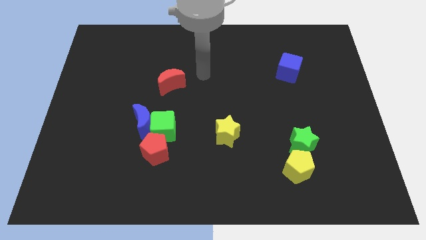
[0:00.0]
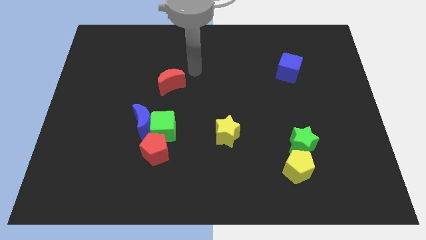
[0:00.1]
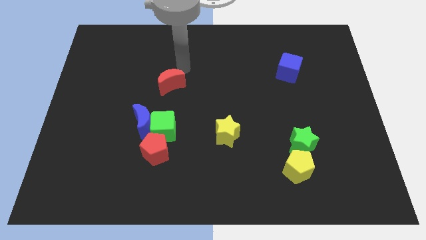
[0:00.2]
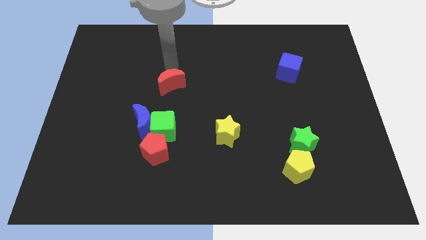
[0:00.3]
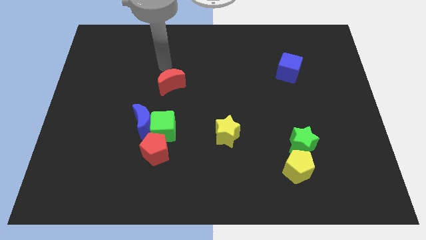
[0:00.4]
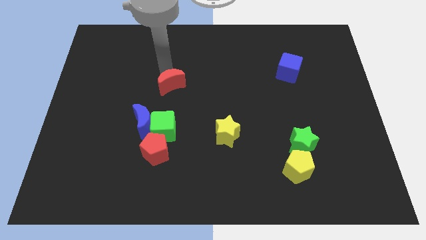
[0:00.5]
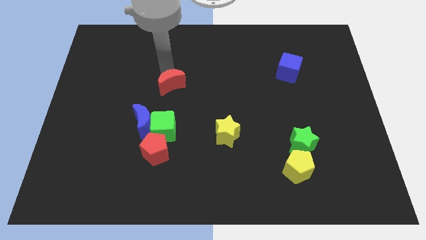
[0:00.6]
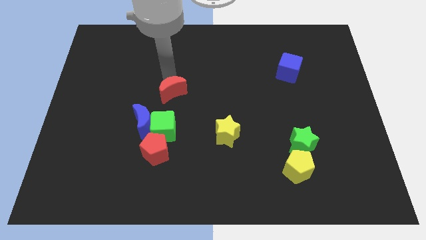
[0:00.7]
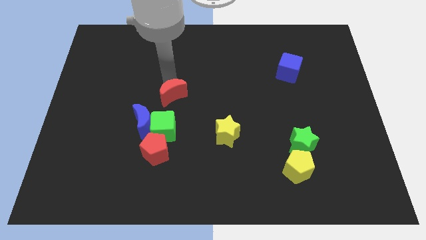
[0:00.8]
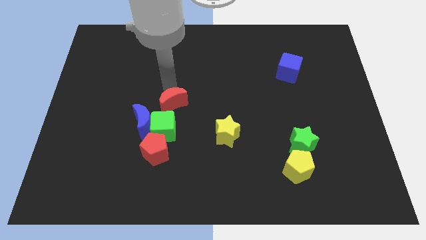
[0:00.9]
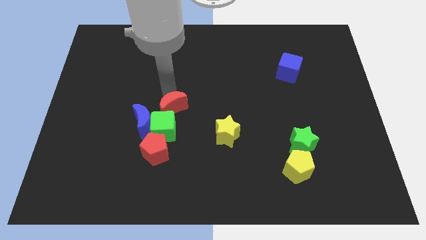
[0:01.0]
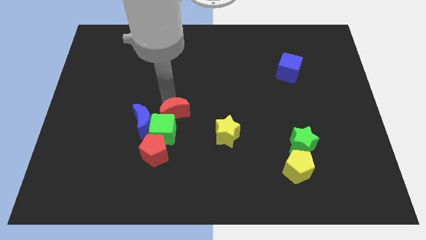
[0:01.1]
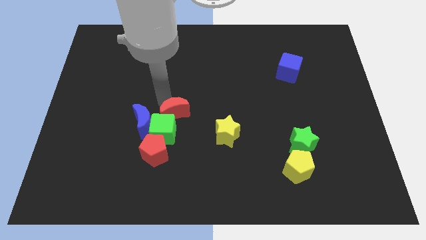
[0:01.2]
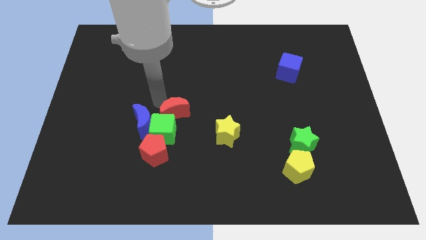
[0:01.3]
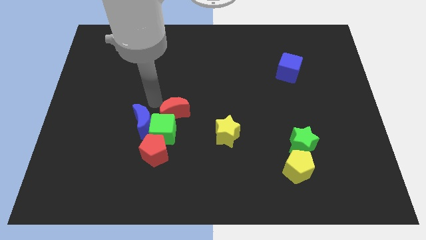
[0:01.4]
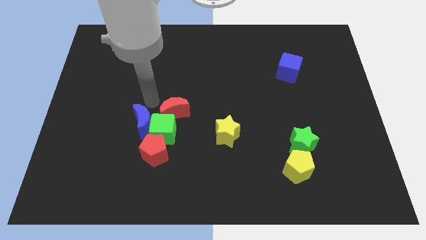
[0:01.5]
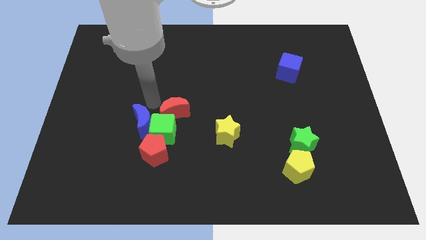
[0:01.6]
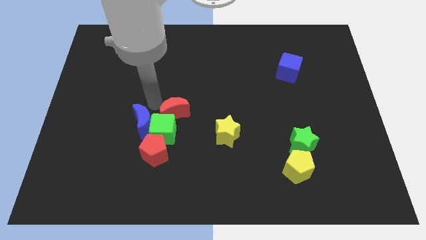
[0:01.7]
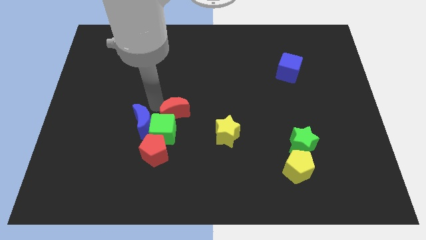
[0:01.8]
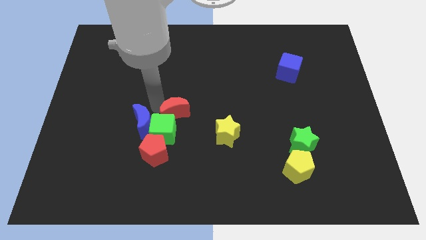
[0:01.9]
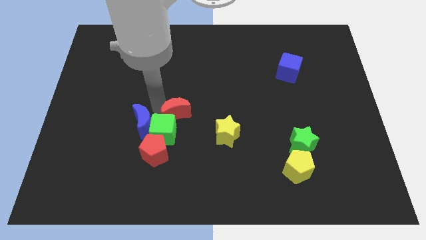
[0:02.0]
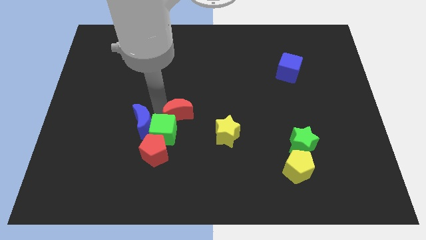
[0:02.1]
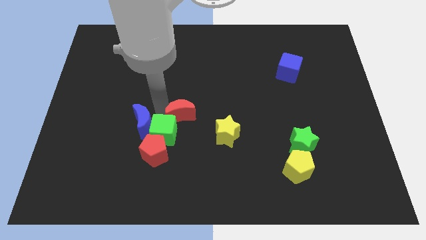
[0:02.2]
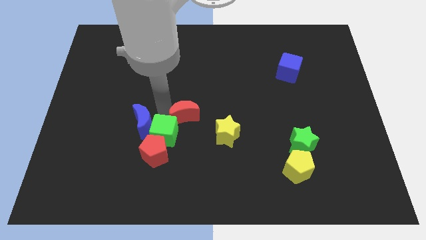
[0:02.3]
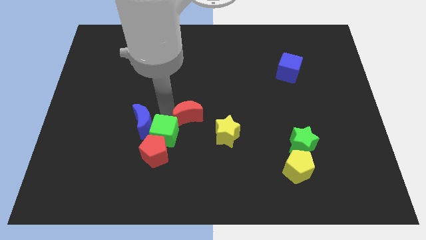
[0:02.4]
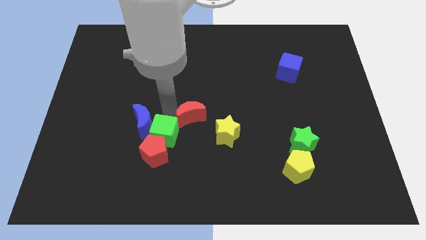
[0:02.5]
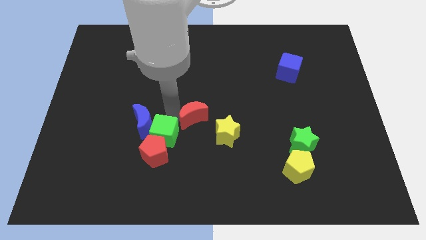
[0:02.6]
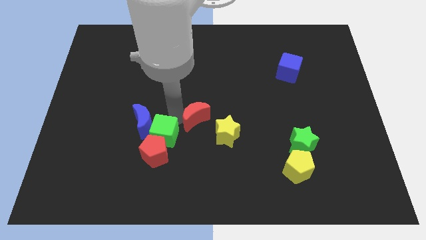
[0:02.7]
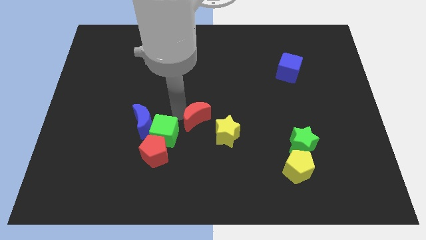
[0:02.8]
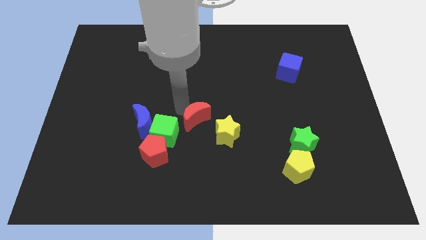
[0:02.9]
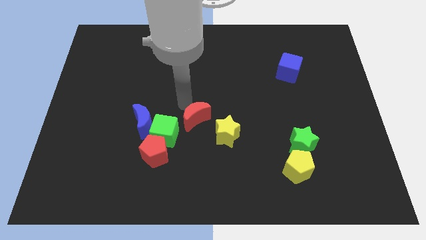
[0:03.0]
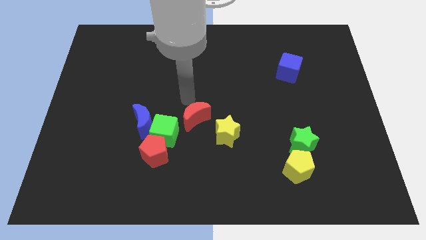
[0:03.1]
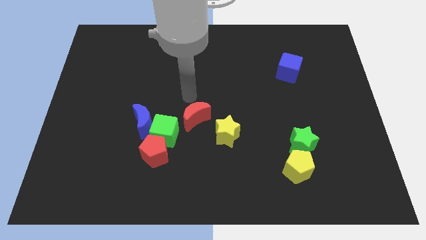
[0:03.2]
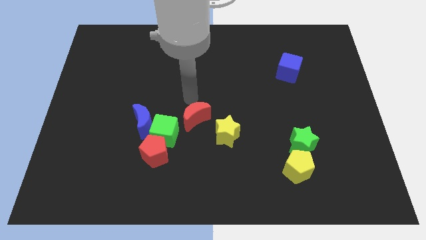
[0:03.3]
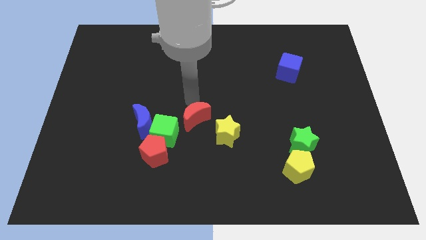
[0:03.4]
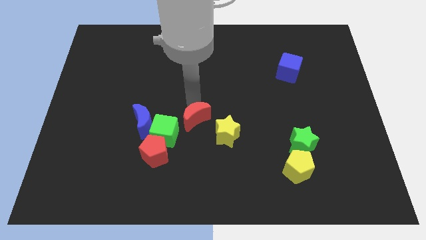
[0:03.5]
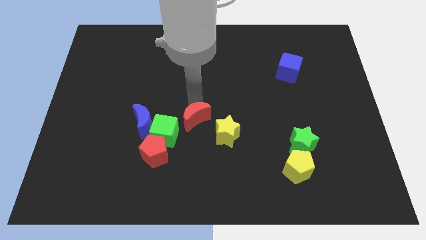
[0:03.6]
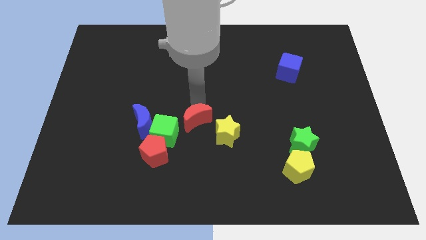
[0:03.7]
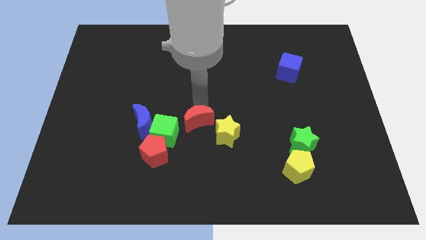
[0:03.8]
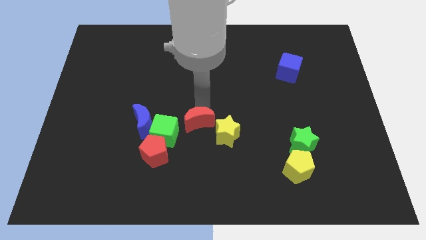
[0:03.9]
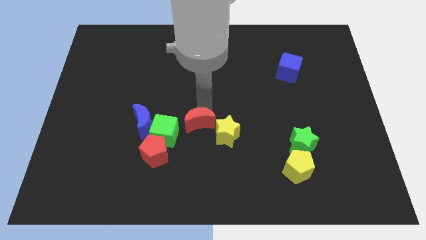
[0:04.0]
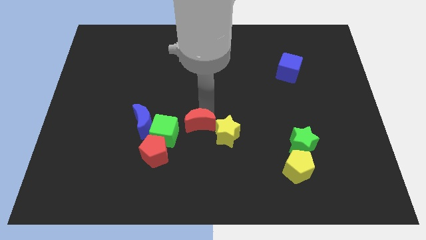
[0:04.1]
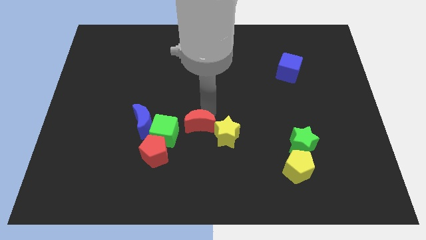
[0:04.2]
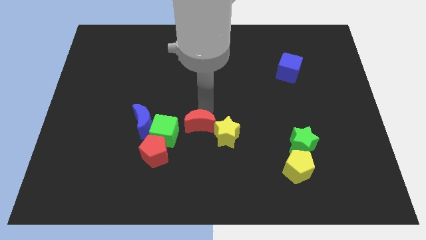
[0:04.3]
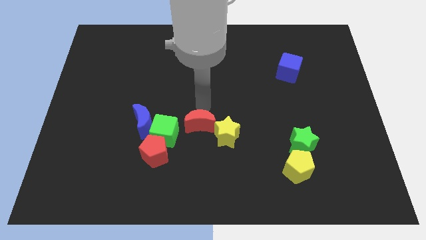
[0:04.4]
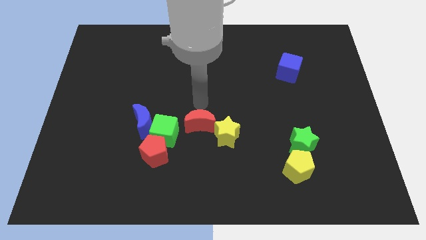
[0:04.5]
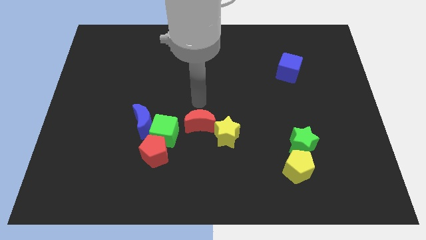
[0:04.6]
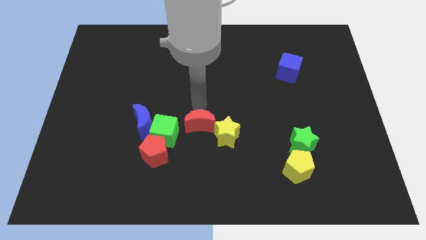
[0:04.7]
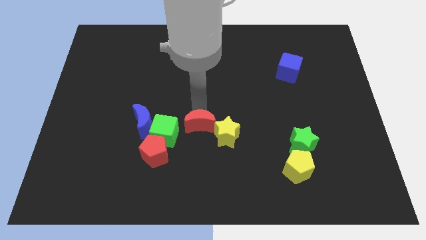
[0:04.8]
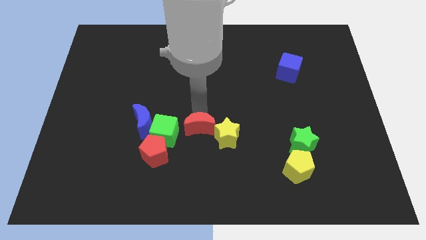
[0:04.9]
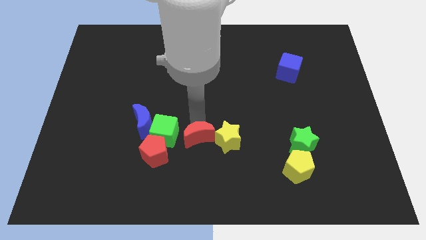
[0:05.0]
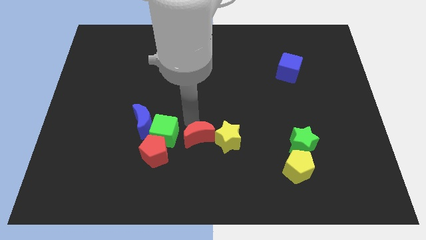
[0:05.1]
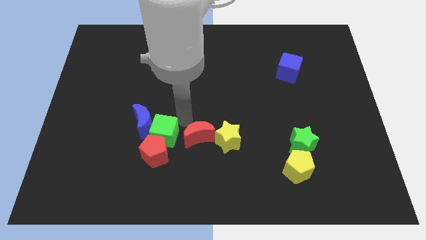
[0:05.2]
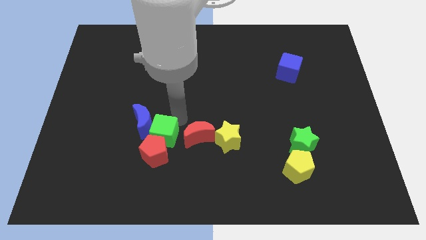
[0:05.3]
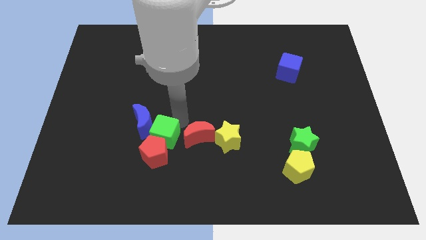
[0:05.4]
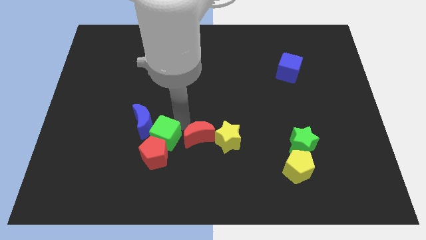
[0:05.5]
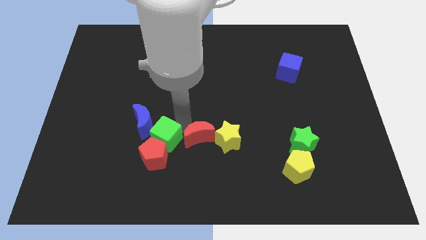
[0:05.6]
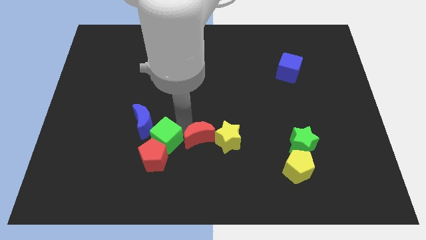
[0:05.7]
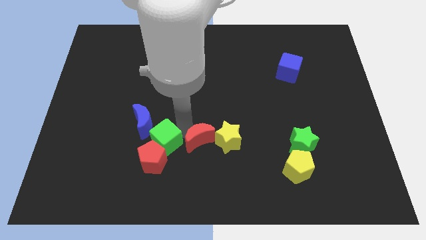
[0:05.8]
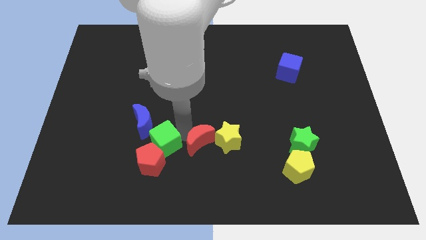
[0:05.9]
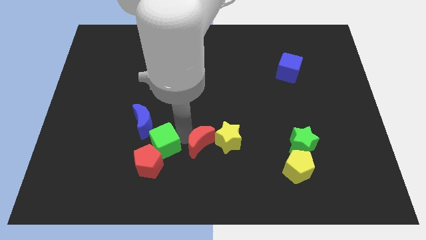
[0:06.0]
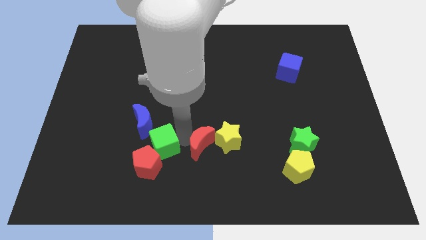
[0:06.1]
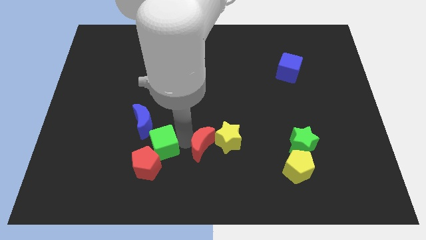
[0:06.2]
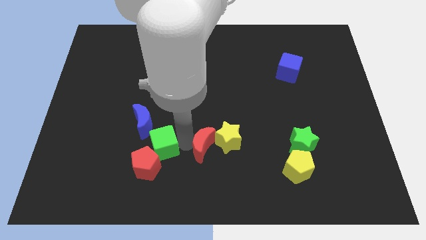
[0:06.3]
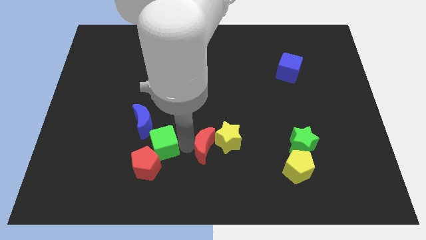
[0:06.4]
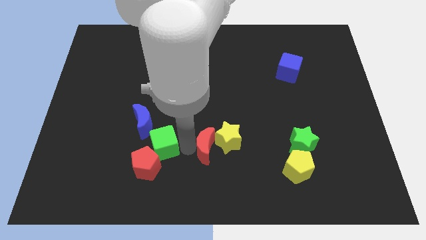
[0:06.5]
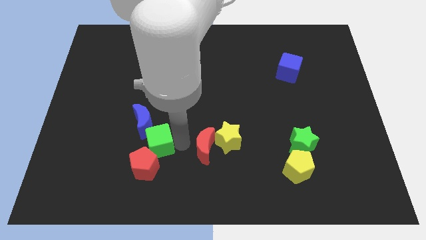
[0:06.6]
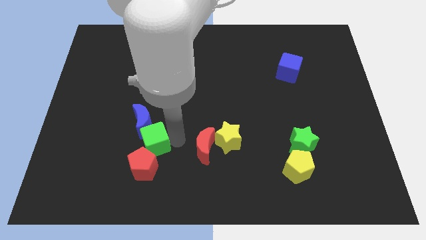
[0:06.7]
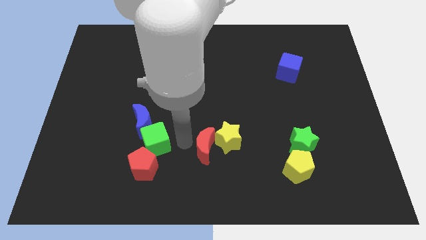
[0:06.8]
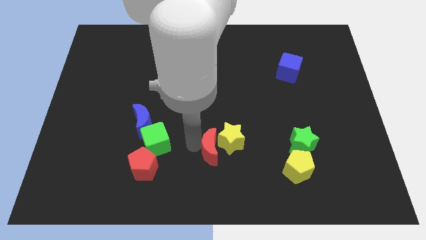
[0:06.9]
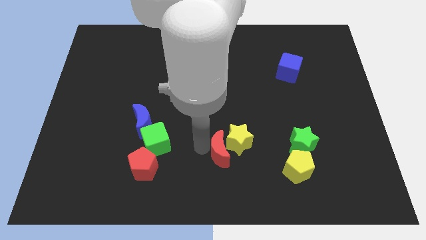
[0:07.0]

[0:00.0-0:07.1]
push the red moon down and then to the right

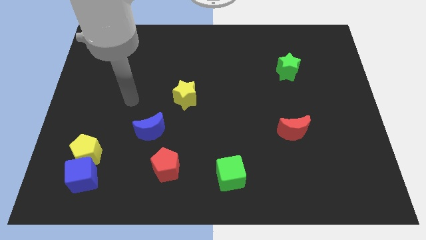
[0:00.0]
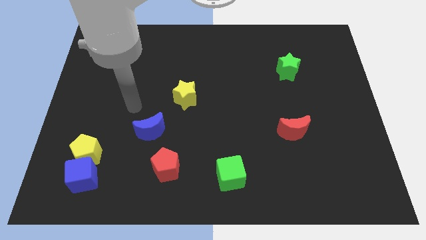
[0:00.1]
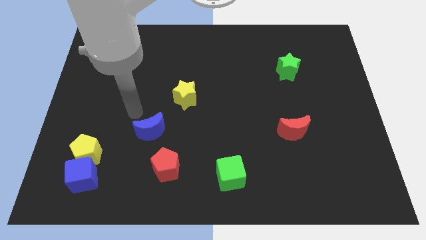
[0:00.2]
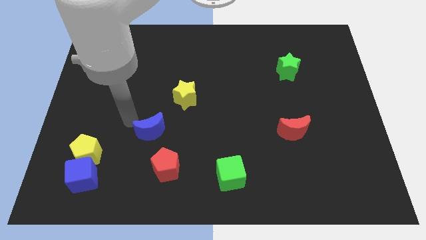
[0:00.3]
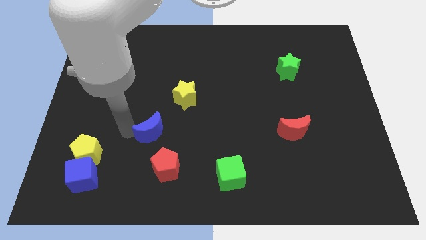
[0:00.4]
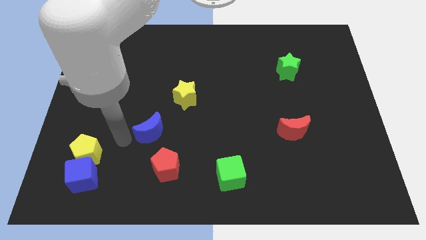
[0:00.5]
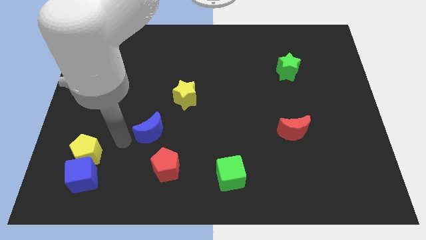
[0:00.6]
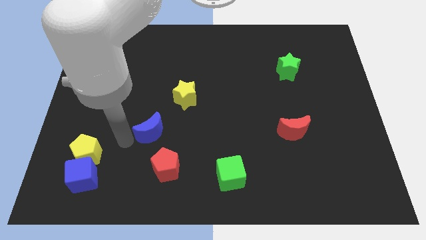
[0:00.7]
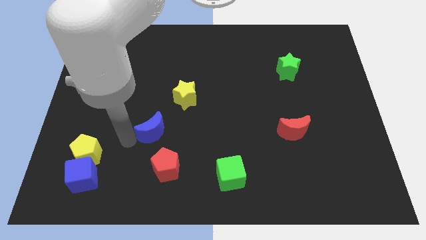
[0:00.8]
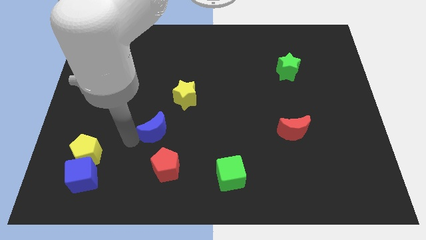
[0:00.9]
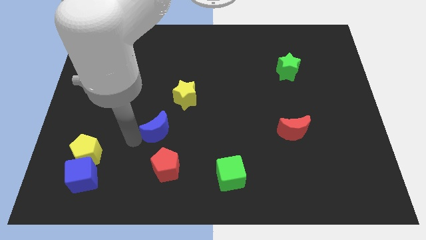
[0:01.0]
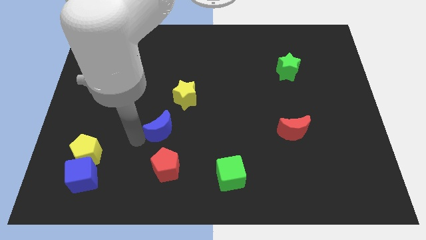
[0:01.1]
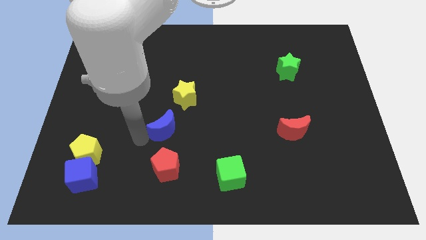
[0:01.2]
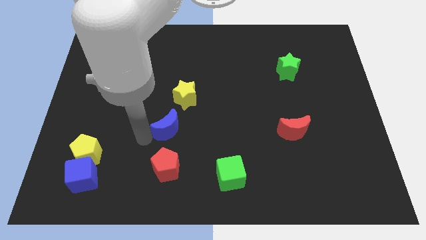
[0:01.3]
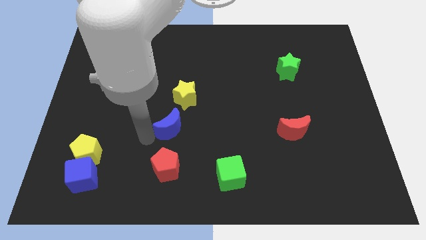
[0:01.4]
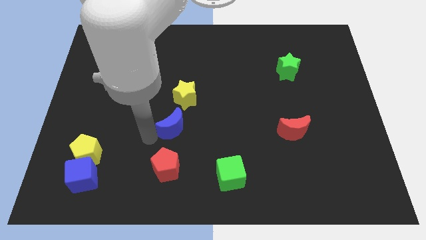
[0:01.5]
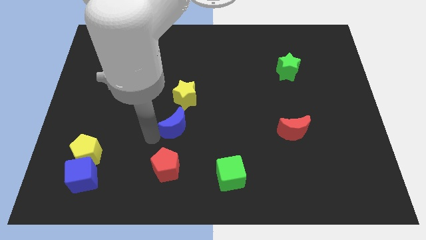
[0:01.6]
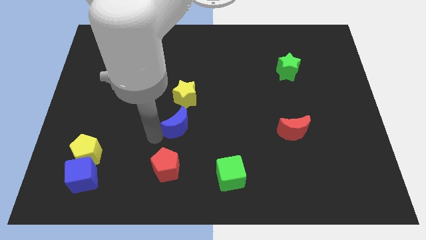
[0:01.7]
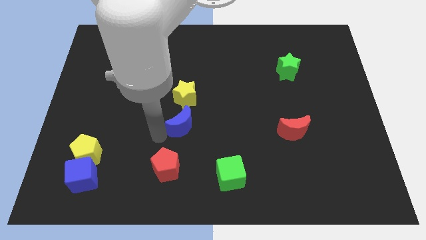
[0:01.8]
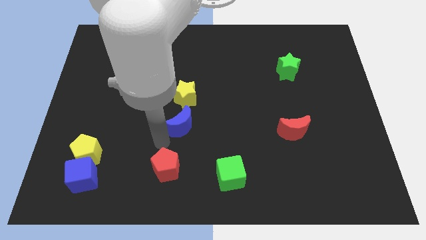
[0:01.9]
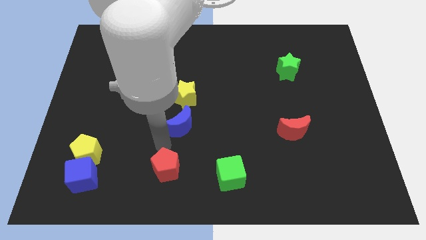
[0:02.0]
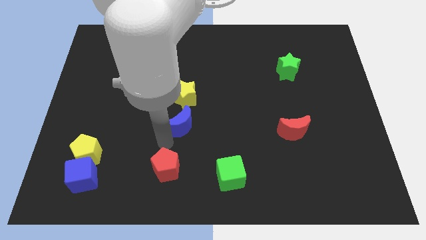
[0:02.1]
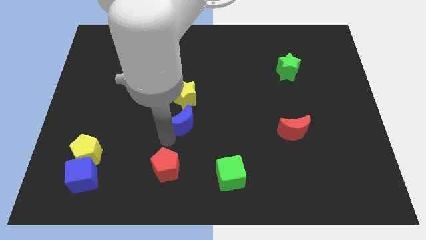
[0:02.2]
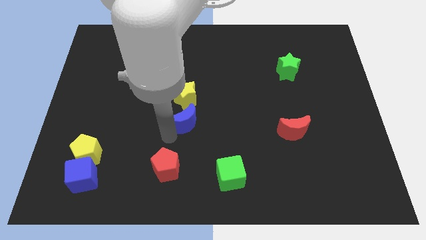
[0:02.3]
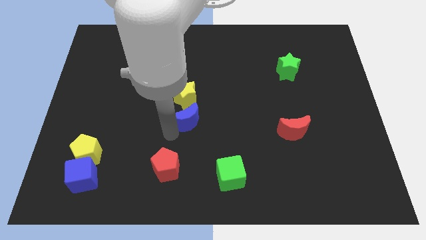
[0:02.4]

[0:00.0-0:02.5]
move the blue moon a little bit up and right
